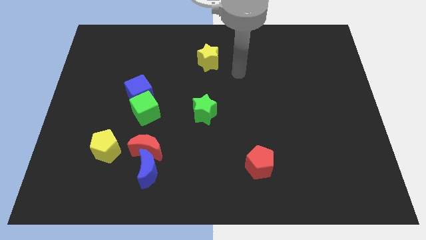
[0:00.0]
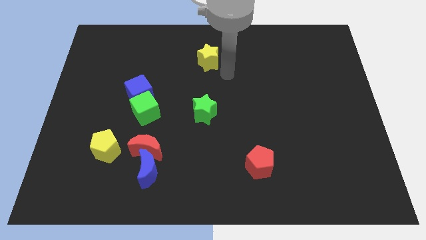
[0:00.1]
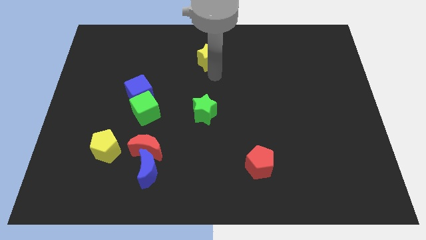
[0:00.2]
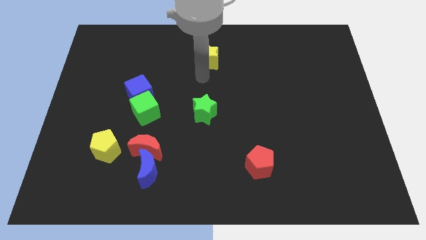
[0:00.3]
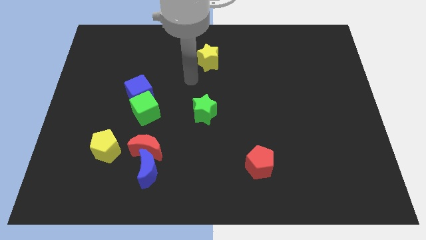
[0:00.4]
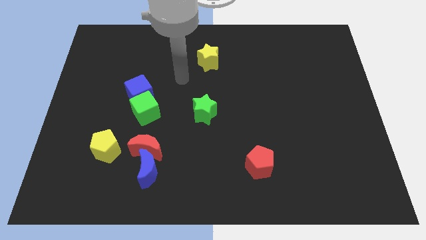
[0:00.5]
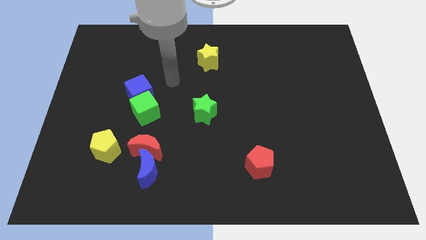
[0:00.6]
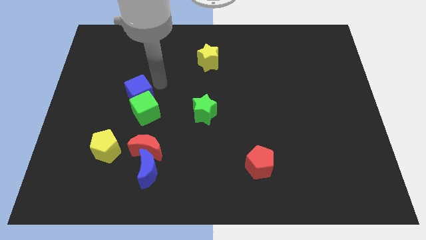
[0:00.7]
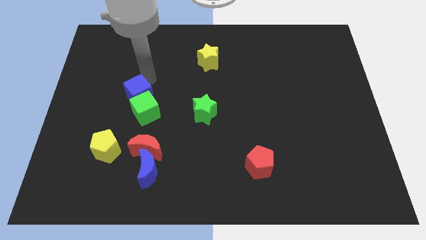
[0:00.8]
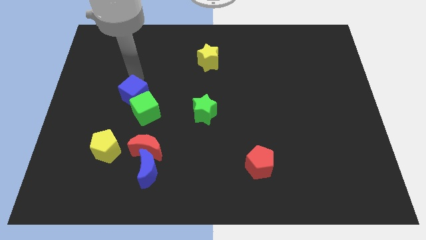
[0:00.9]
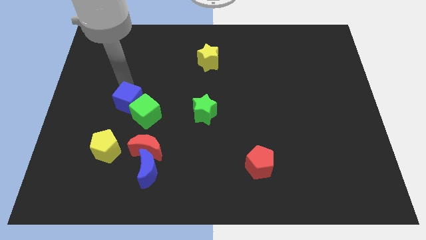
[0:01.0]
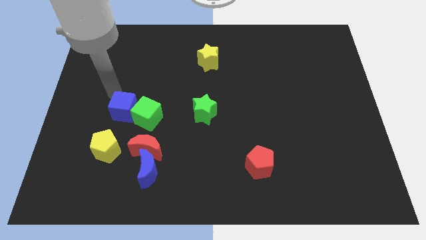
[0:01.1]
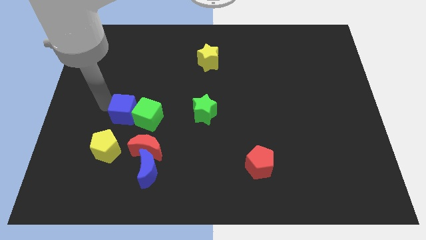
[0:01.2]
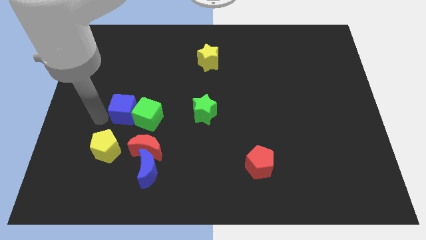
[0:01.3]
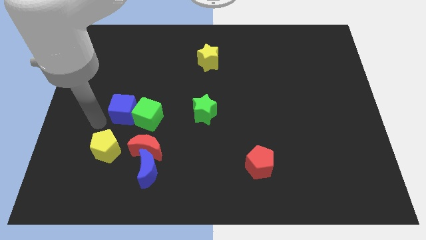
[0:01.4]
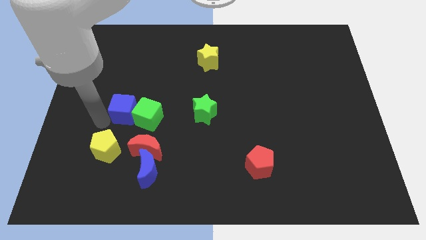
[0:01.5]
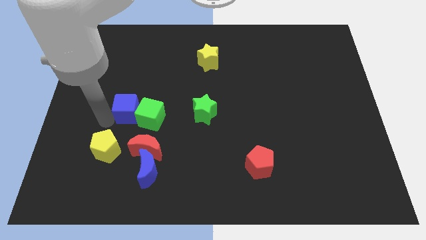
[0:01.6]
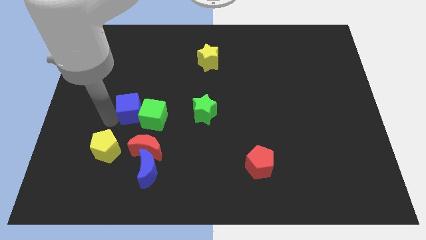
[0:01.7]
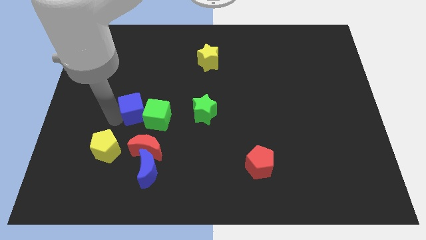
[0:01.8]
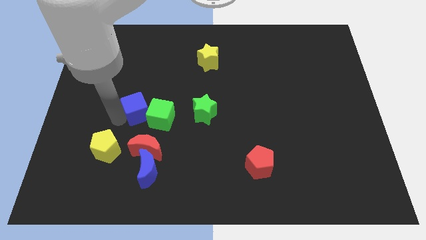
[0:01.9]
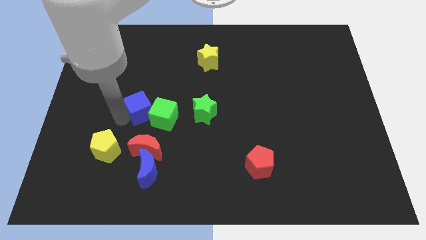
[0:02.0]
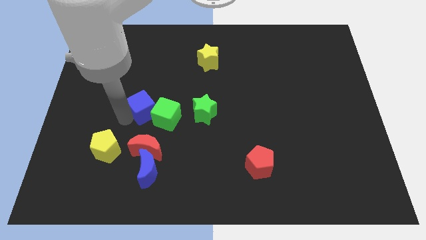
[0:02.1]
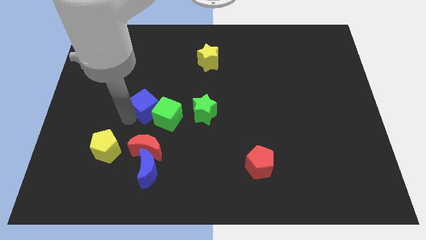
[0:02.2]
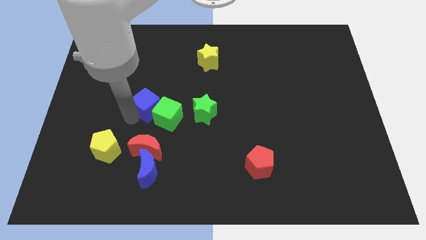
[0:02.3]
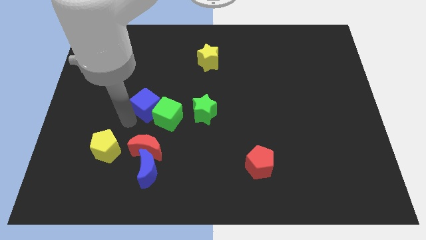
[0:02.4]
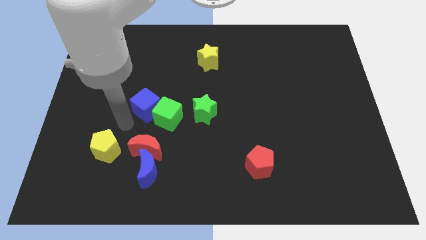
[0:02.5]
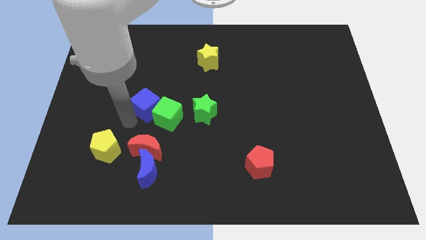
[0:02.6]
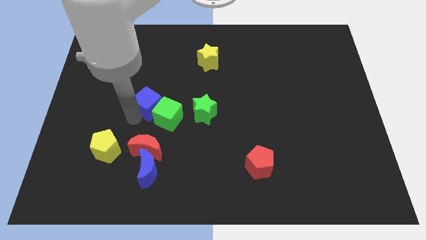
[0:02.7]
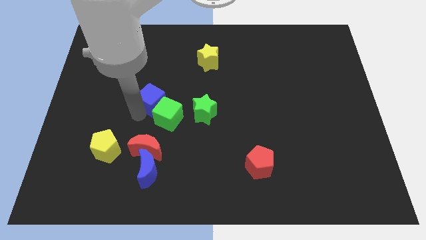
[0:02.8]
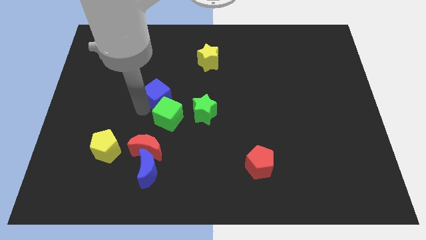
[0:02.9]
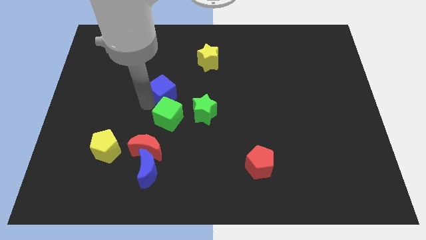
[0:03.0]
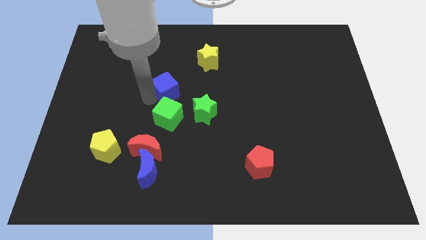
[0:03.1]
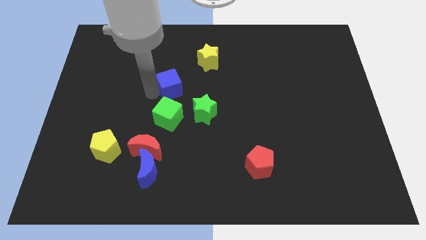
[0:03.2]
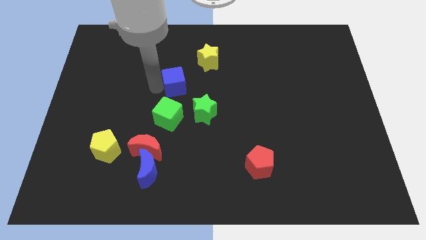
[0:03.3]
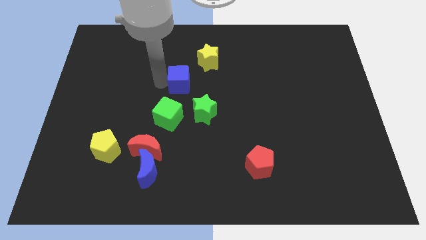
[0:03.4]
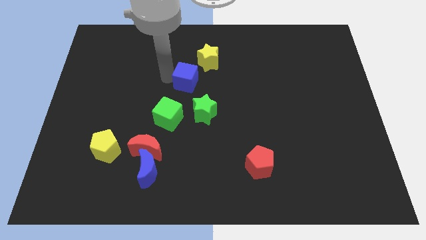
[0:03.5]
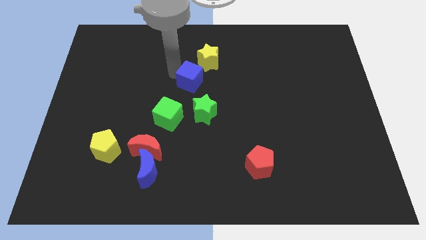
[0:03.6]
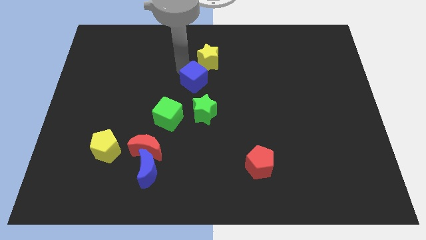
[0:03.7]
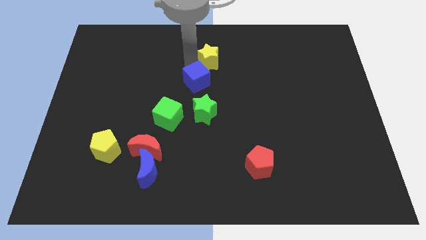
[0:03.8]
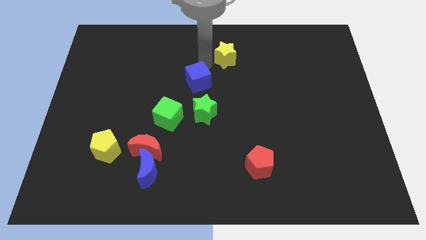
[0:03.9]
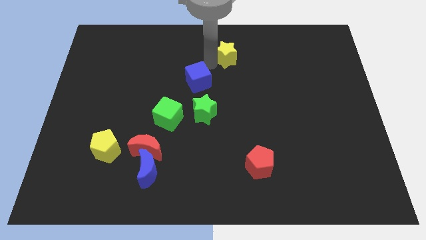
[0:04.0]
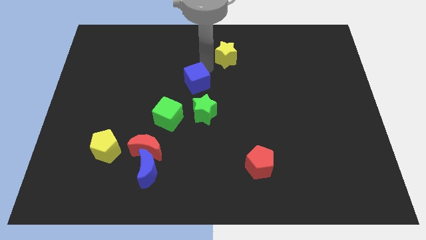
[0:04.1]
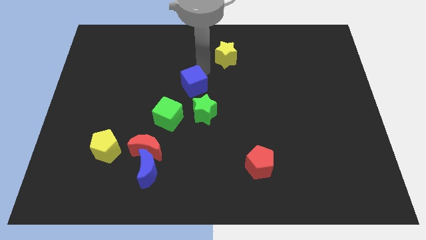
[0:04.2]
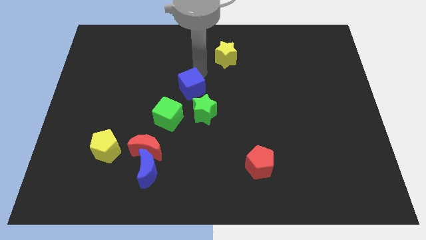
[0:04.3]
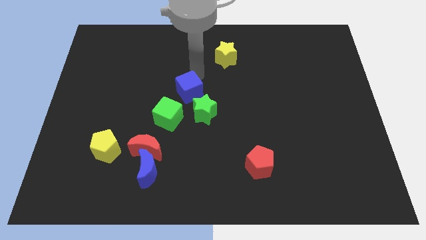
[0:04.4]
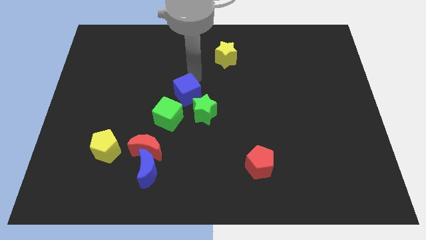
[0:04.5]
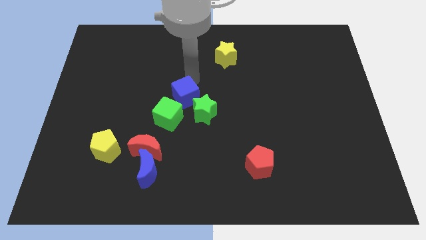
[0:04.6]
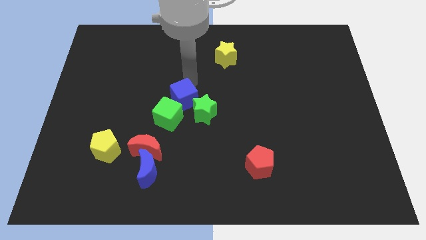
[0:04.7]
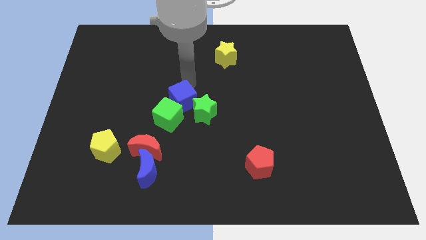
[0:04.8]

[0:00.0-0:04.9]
slightly slide the blue cube down and to the right diagonally

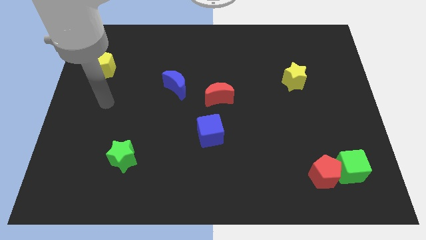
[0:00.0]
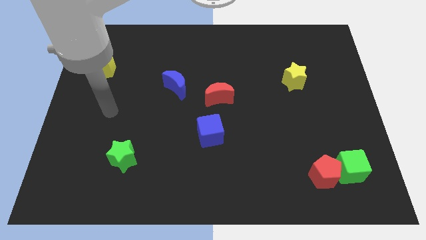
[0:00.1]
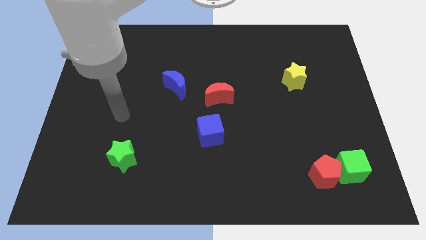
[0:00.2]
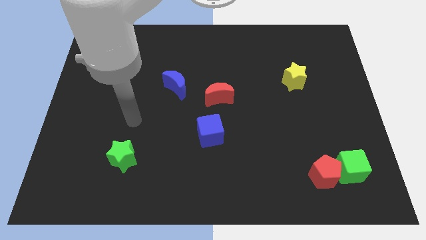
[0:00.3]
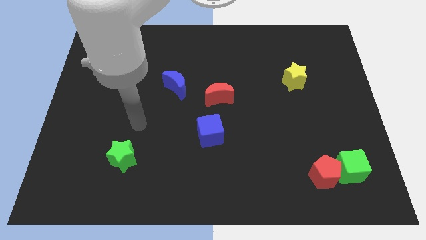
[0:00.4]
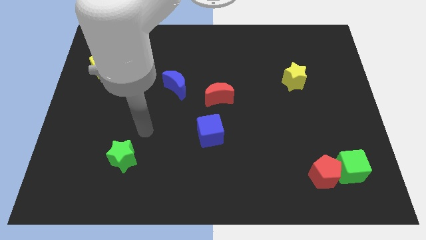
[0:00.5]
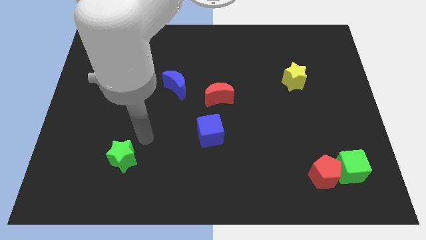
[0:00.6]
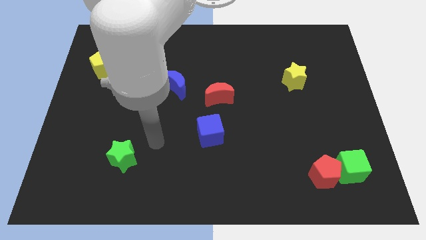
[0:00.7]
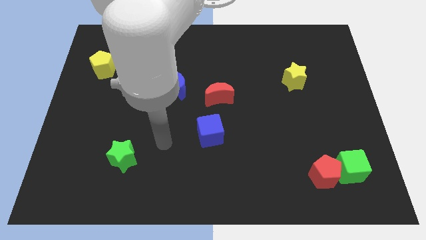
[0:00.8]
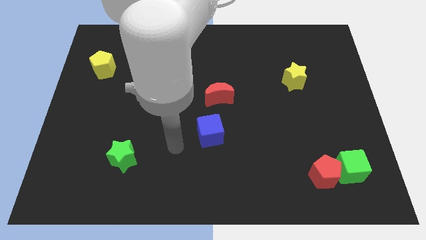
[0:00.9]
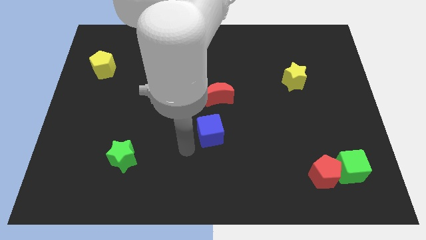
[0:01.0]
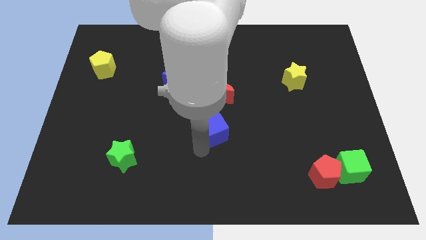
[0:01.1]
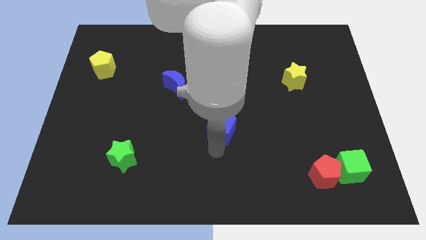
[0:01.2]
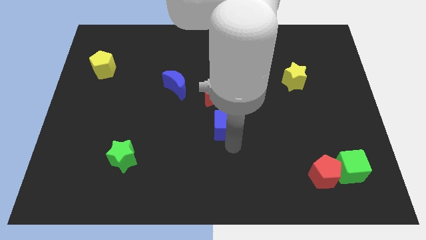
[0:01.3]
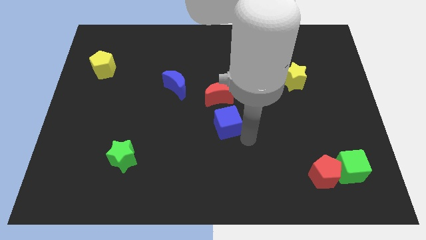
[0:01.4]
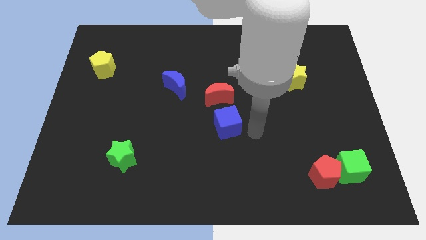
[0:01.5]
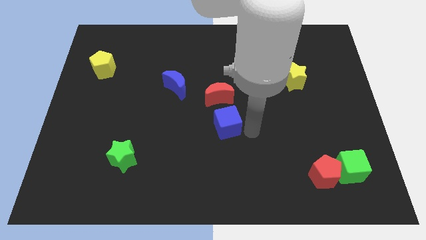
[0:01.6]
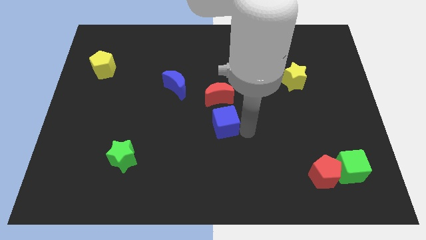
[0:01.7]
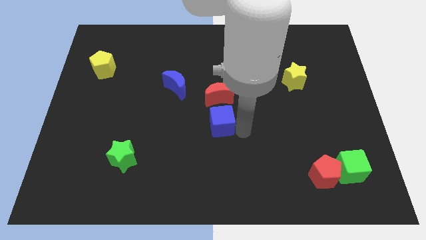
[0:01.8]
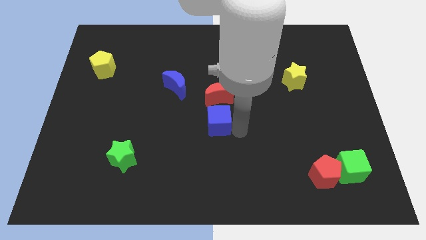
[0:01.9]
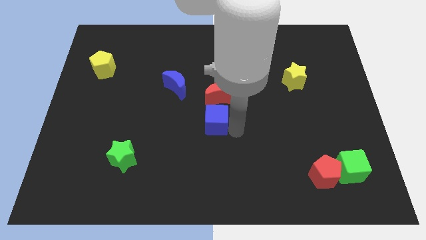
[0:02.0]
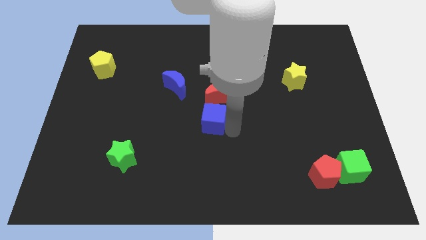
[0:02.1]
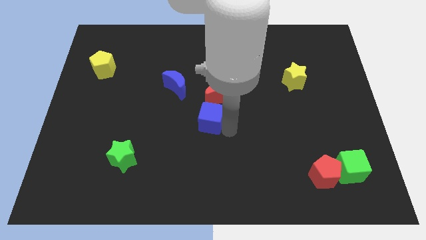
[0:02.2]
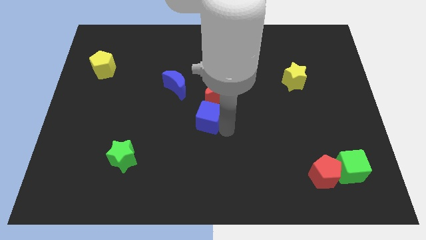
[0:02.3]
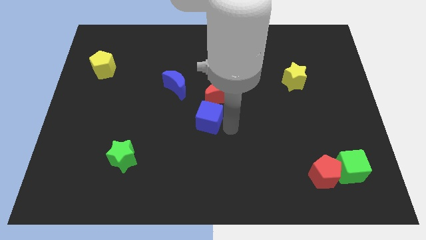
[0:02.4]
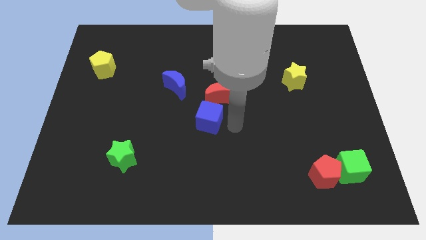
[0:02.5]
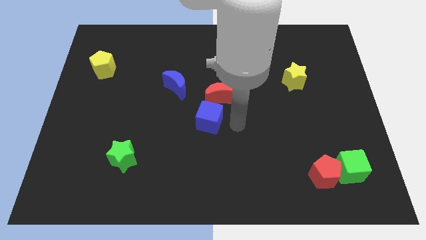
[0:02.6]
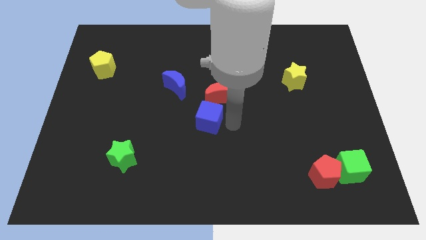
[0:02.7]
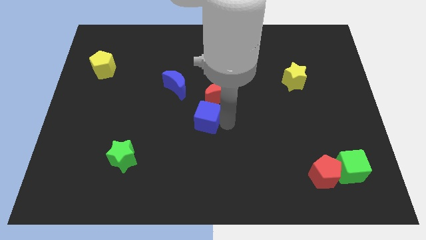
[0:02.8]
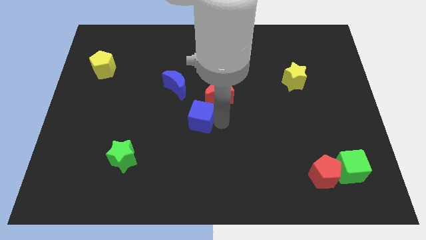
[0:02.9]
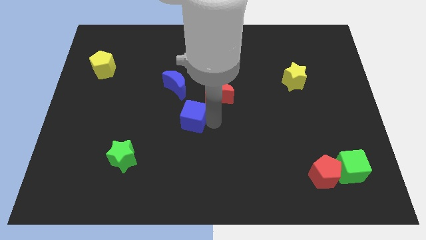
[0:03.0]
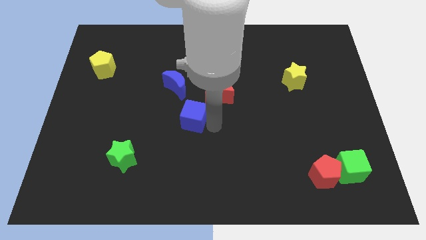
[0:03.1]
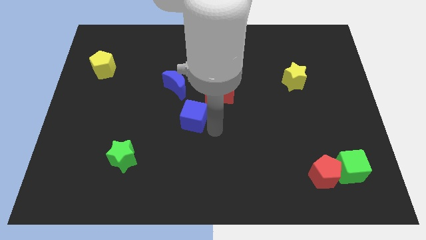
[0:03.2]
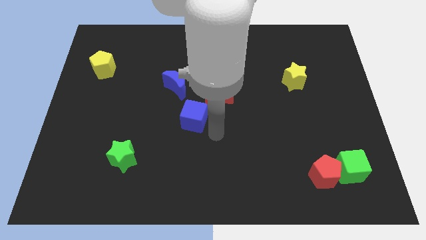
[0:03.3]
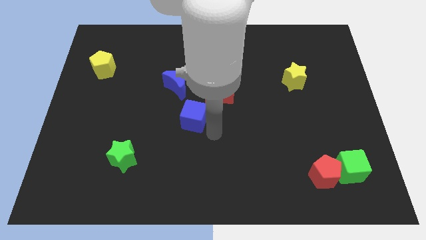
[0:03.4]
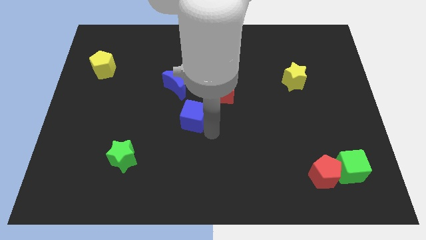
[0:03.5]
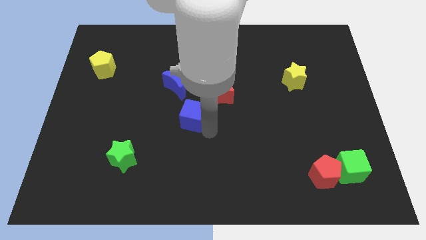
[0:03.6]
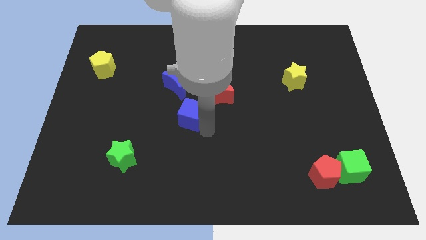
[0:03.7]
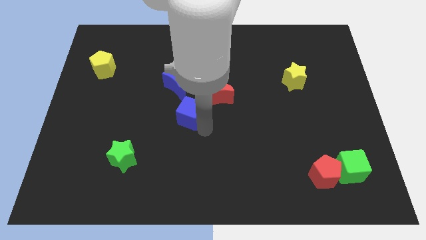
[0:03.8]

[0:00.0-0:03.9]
move the blue cube up and then left a little bit
